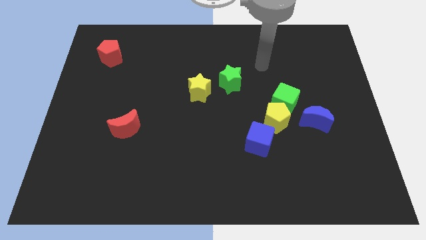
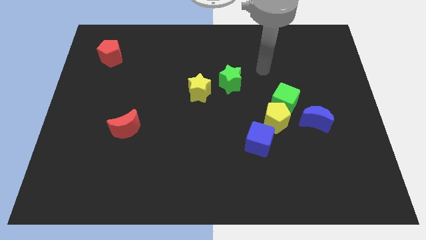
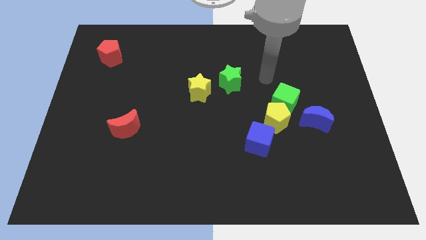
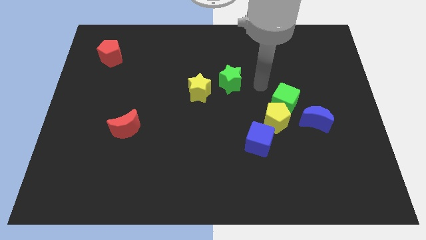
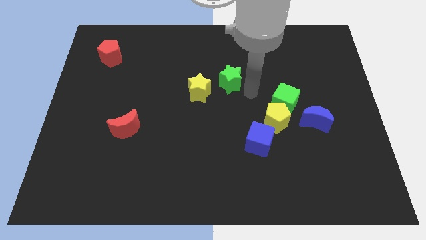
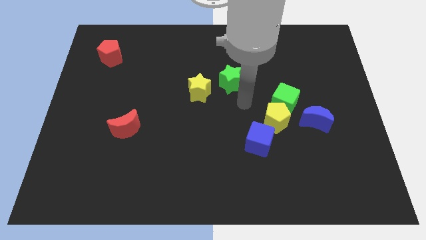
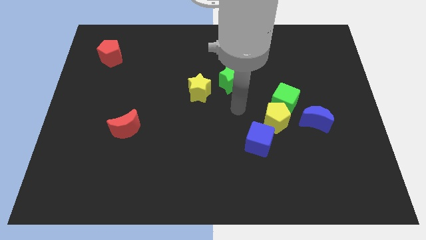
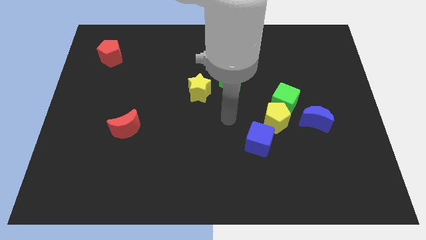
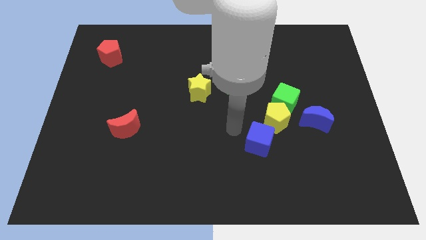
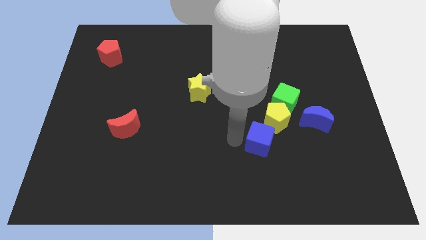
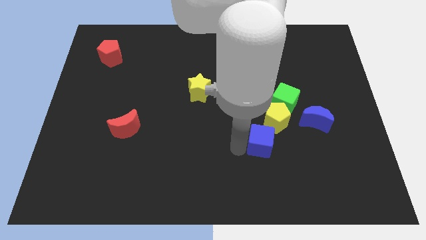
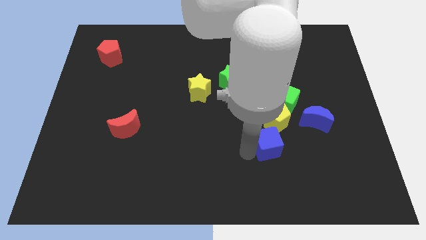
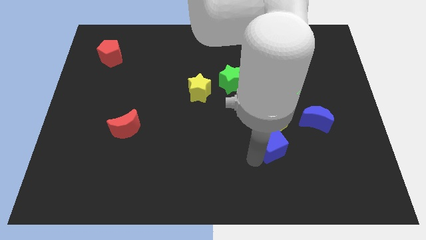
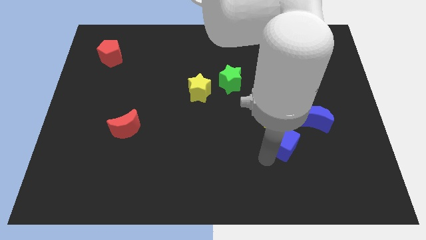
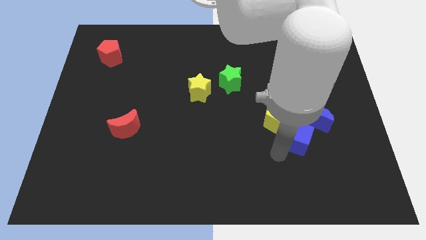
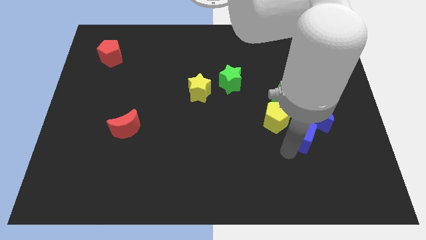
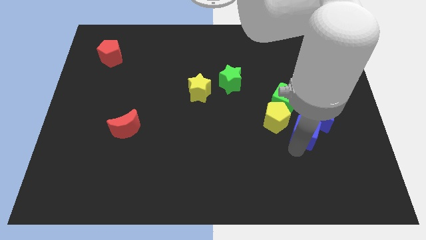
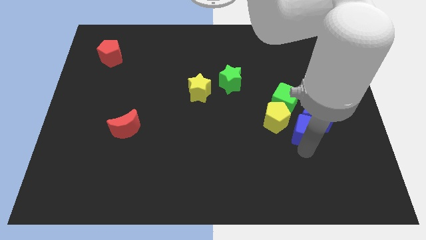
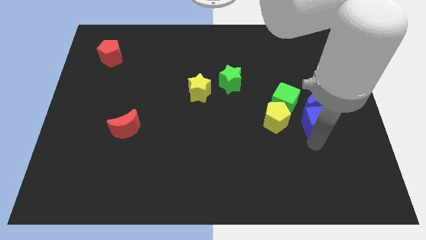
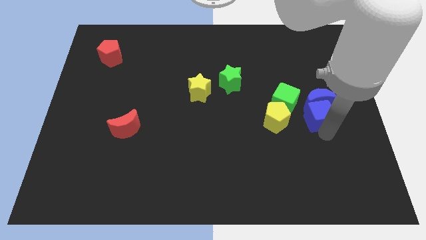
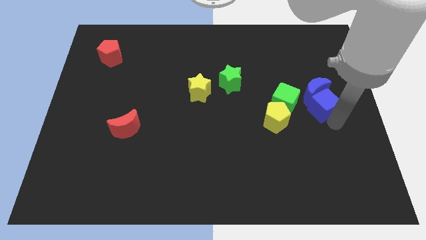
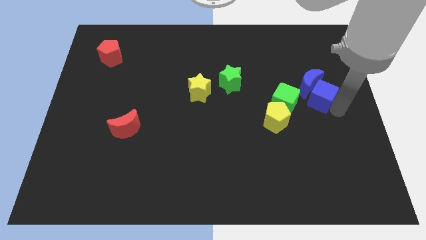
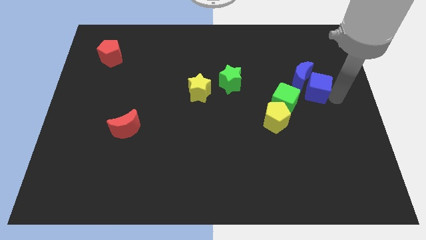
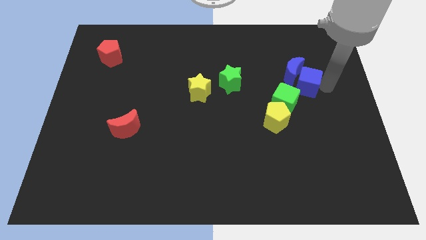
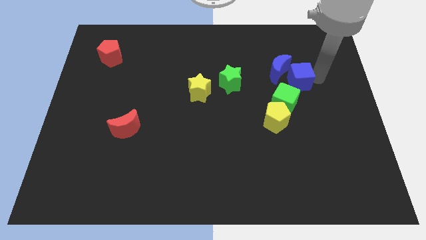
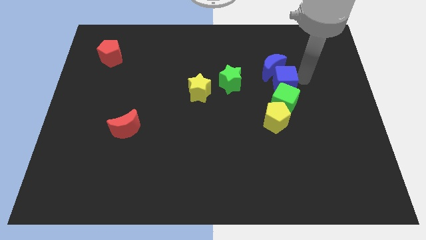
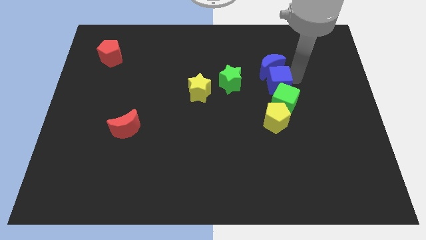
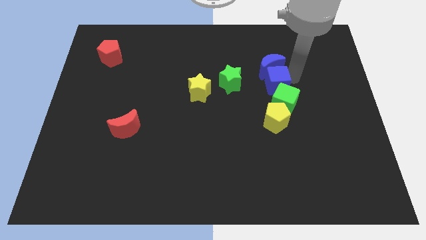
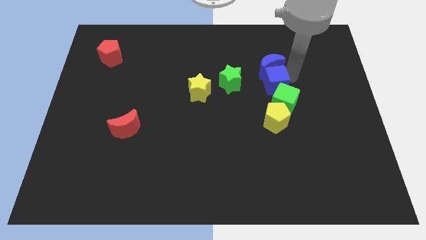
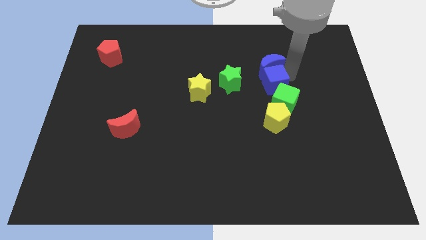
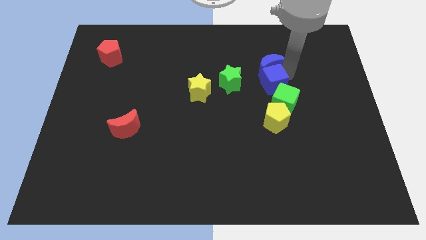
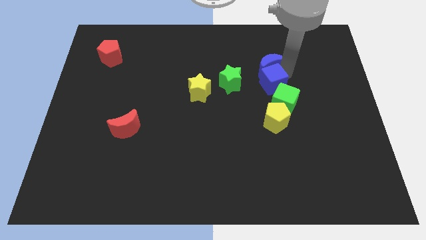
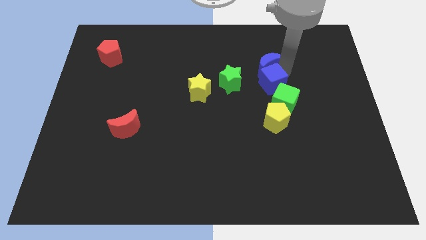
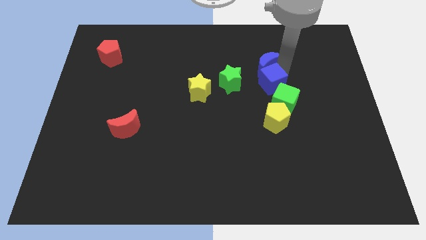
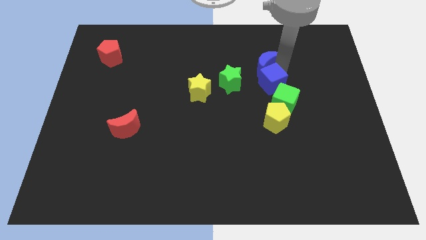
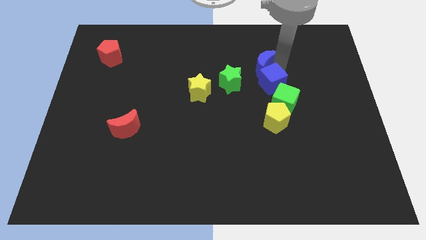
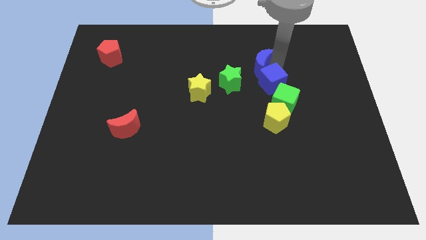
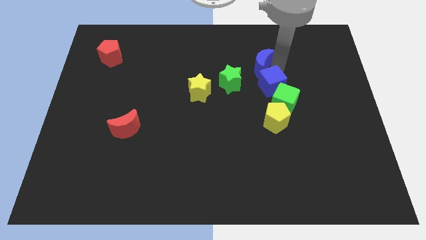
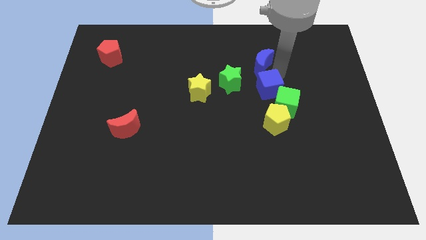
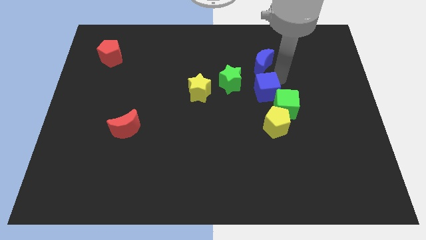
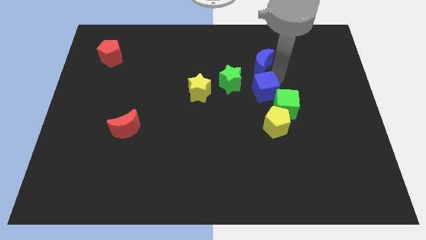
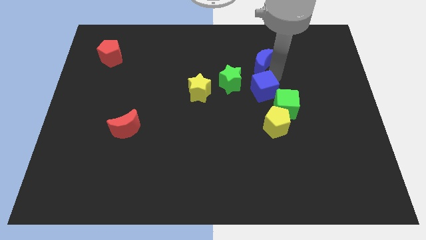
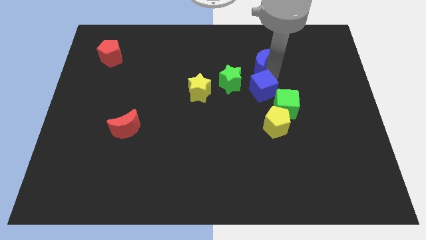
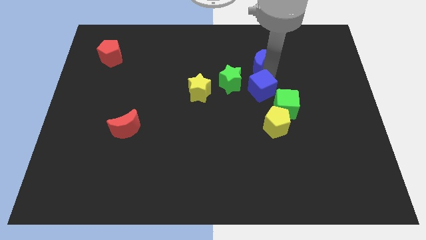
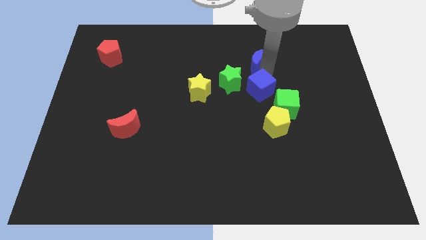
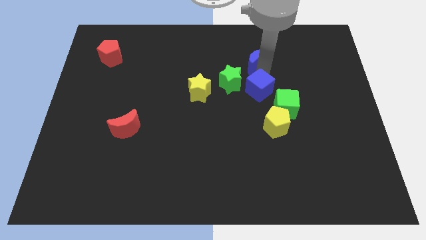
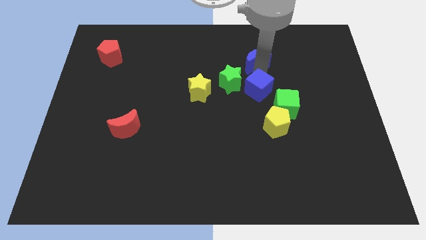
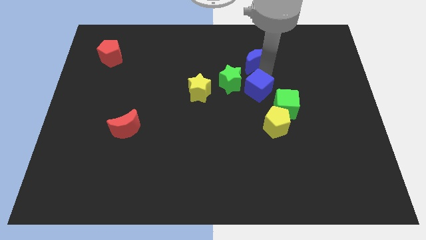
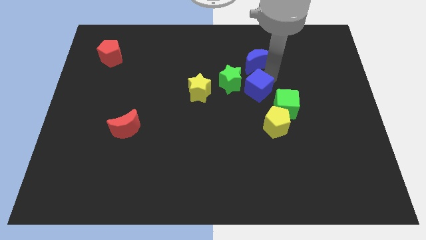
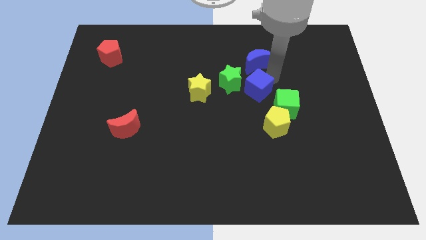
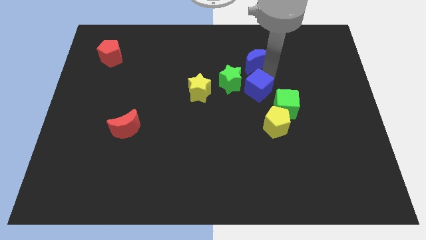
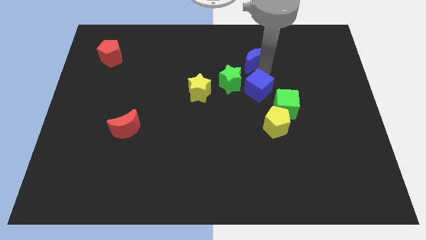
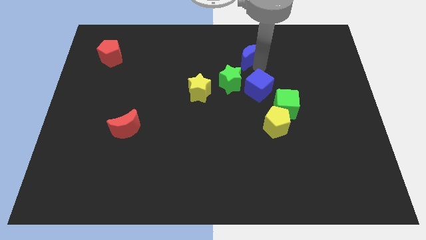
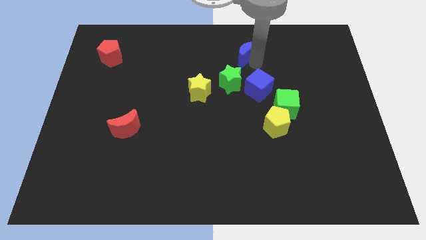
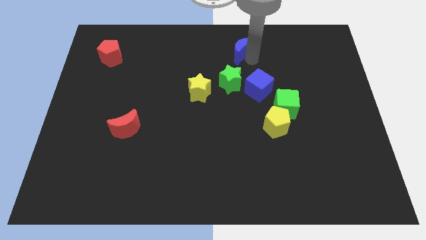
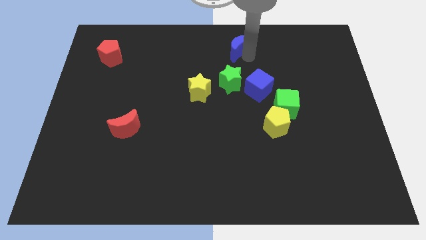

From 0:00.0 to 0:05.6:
move the blue moon to the top side

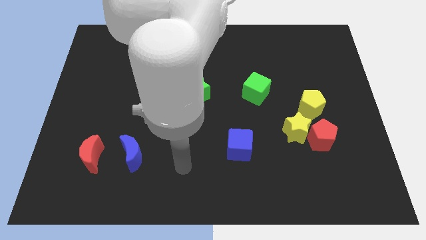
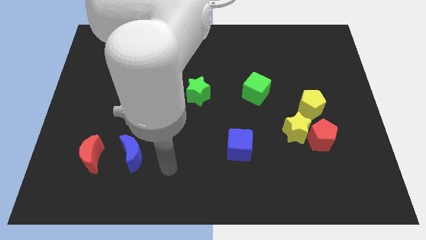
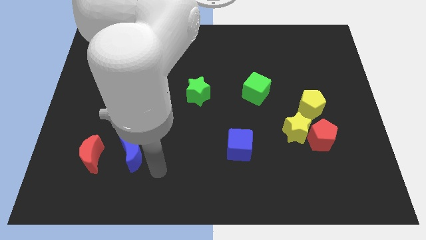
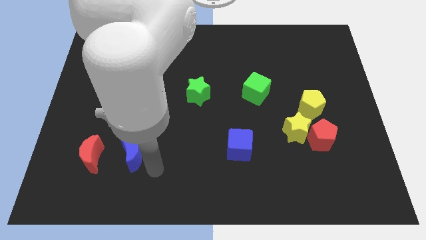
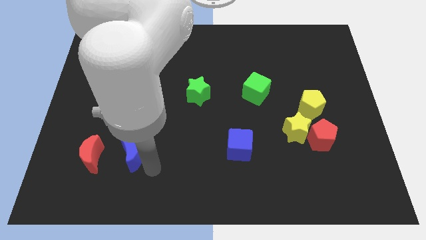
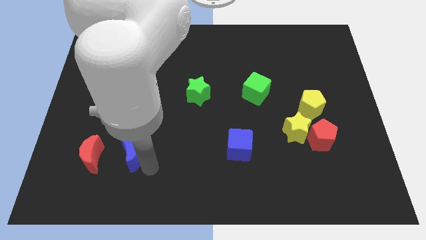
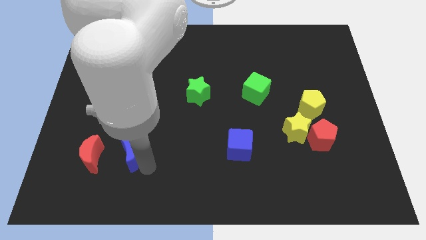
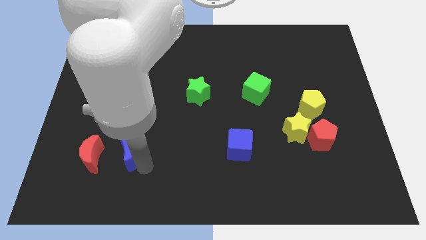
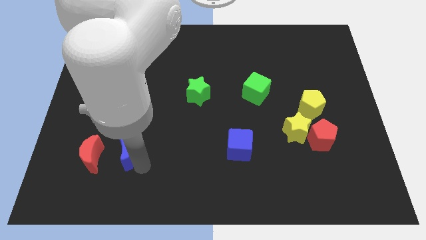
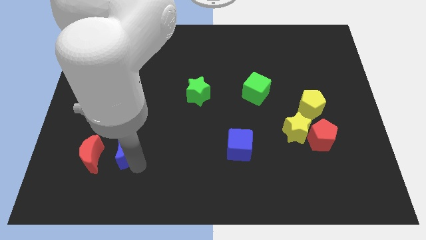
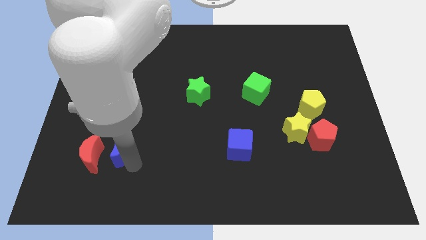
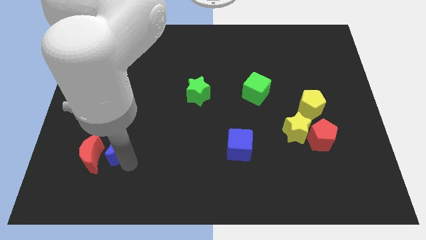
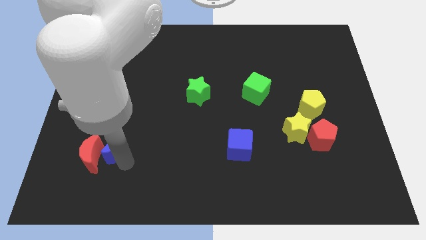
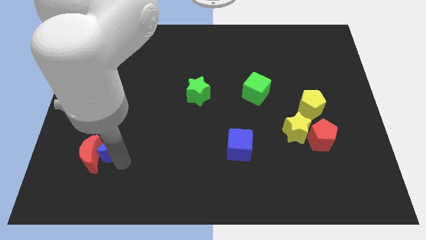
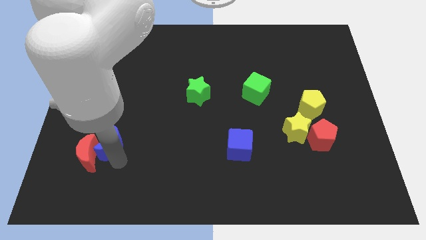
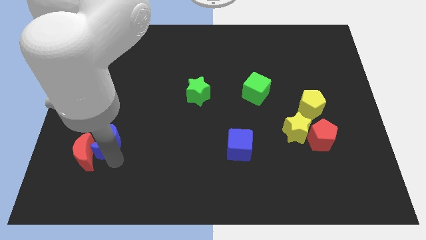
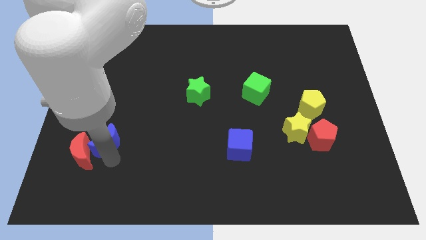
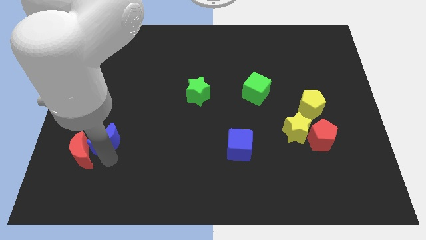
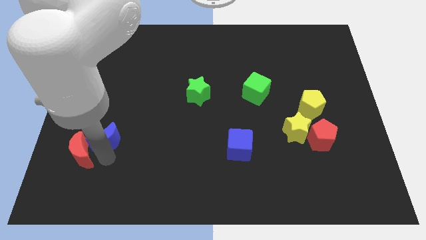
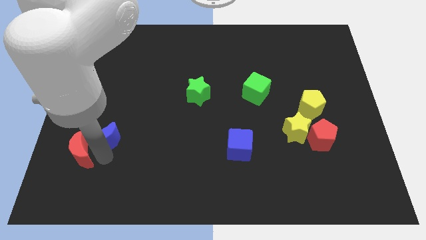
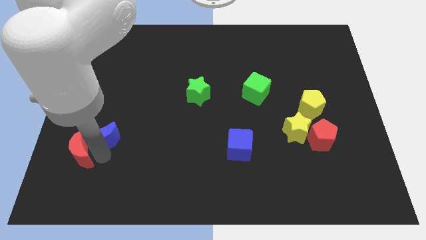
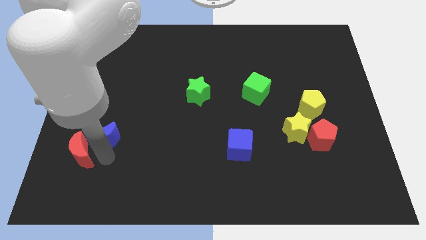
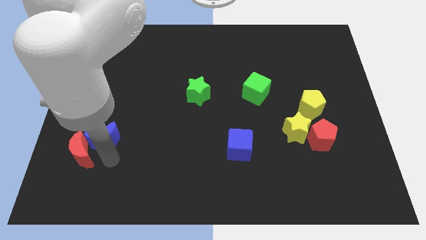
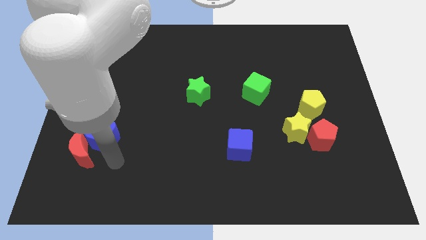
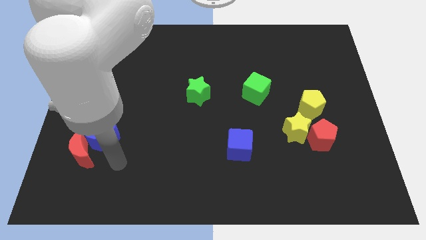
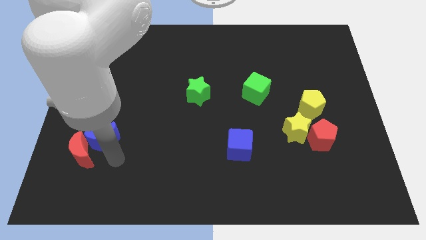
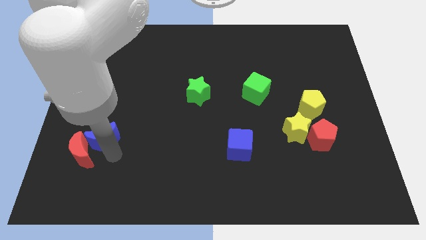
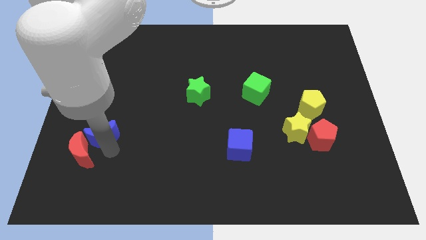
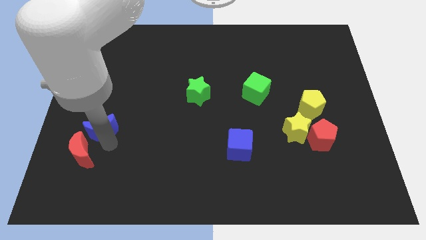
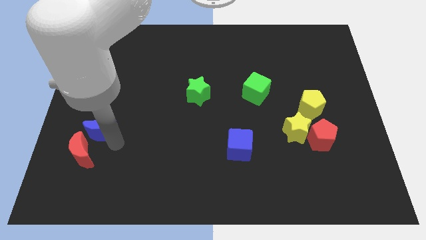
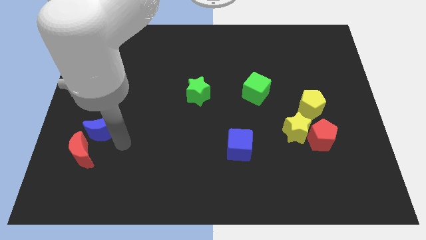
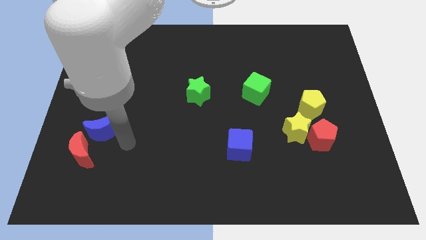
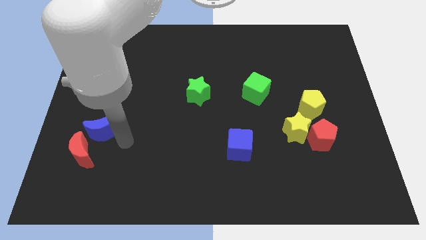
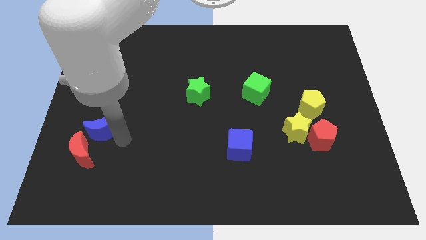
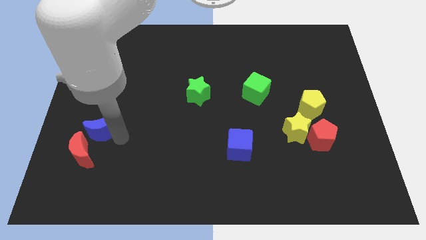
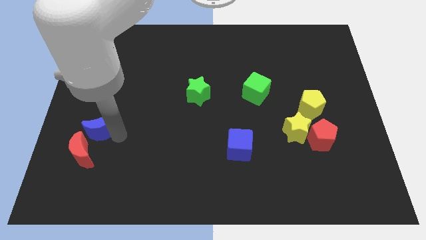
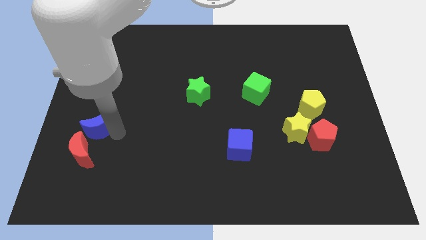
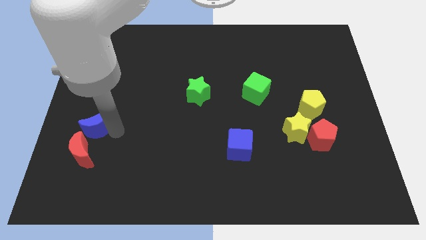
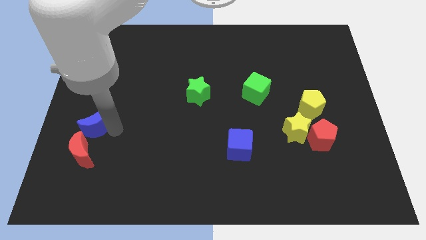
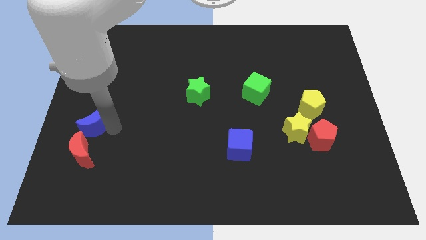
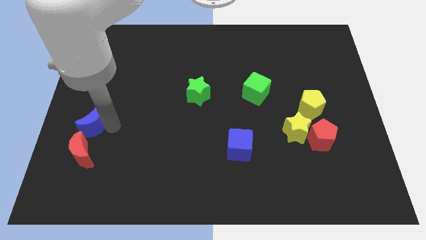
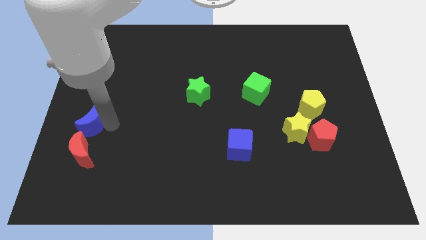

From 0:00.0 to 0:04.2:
put the blue moon to the left side
